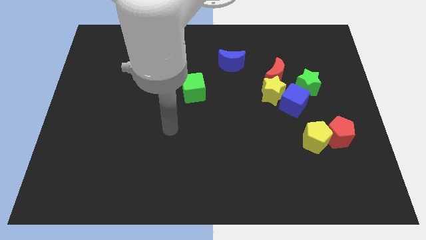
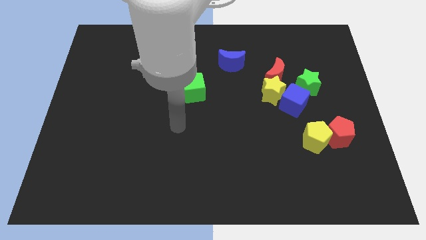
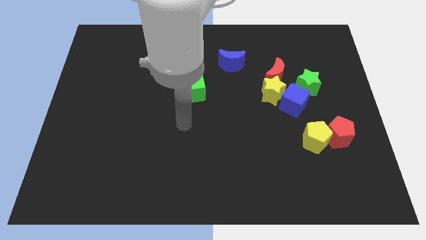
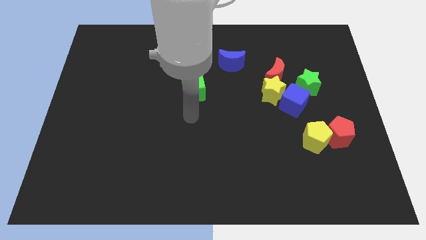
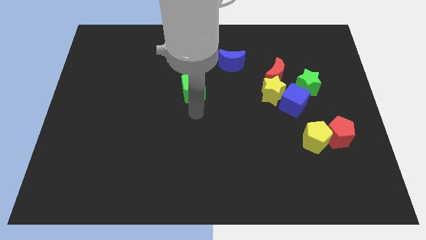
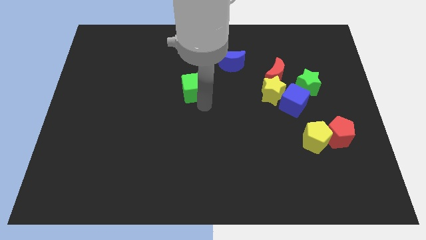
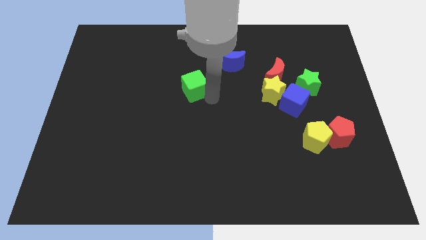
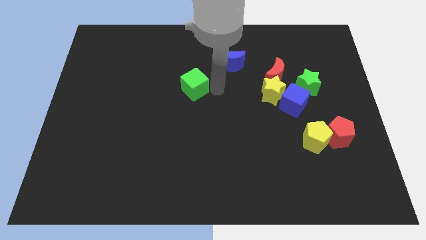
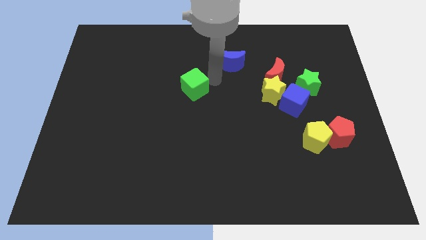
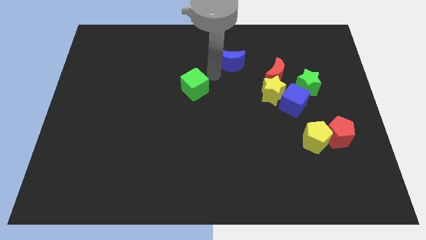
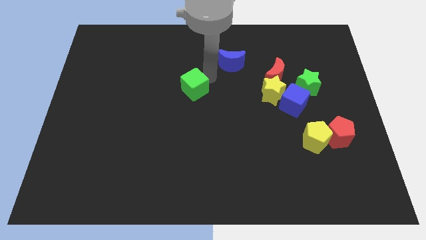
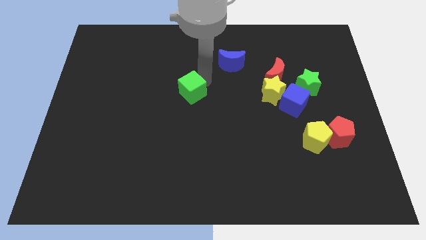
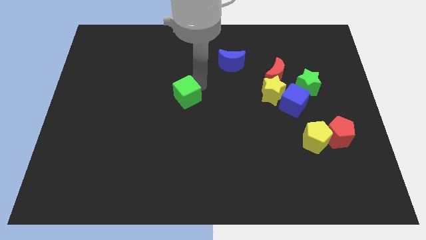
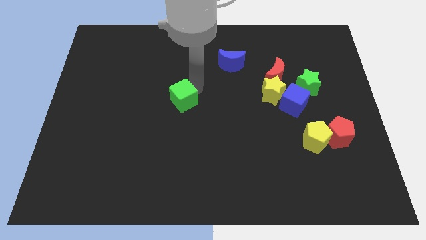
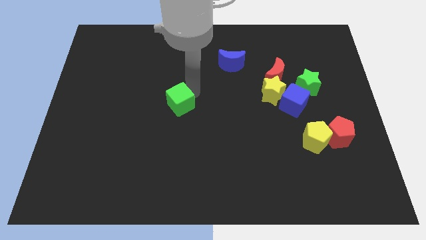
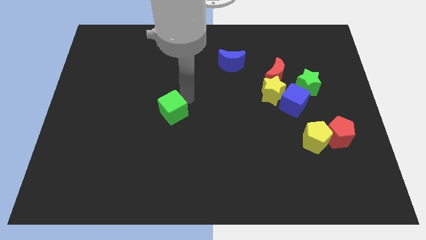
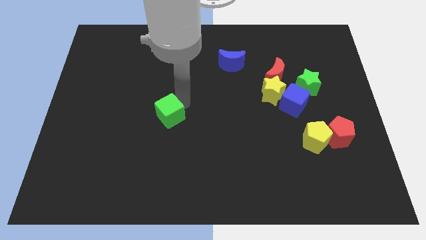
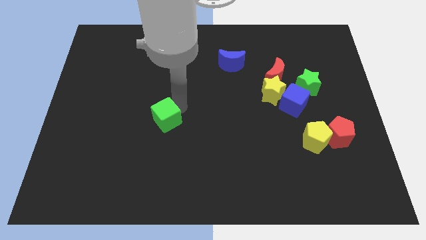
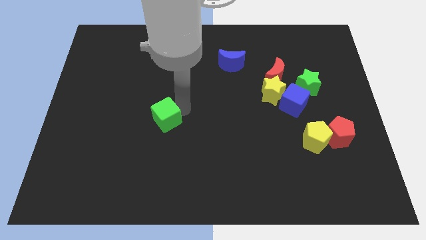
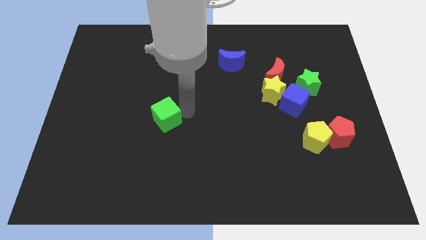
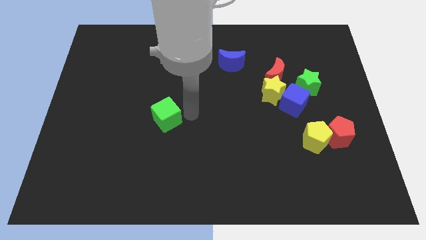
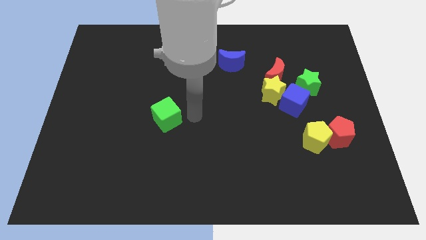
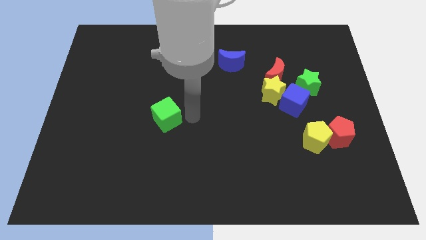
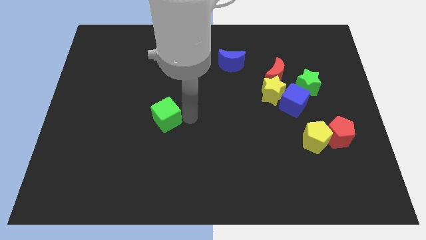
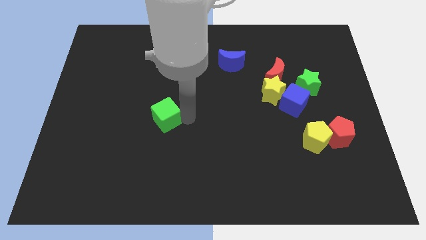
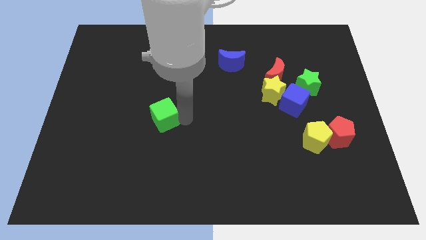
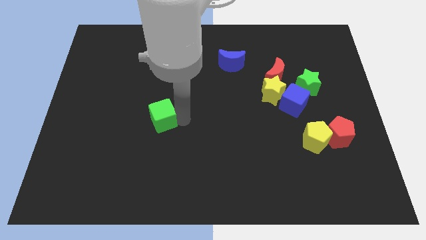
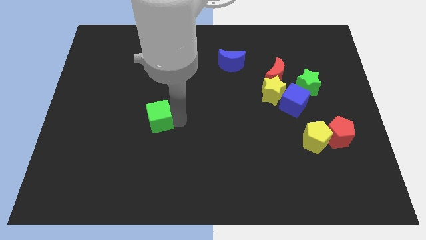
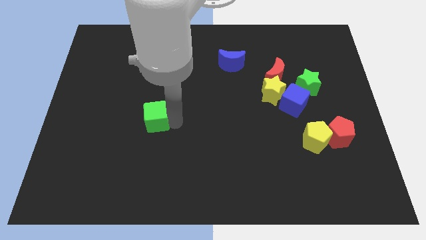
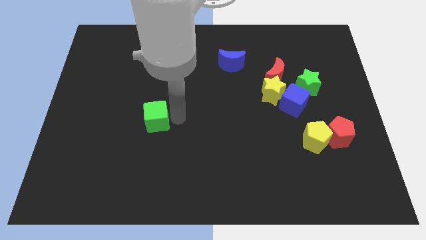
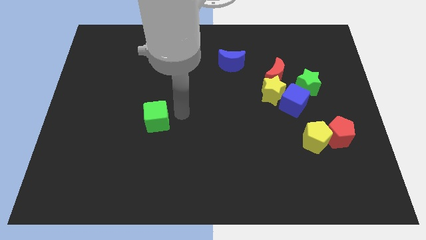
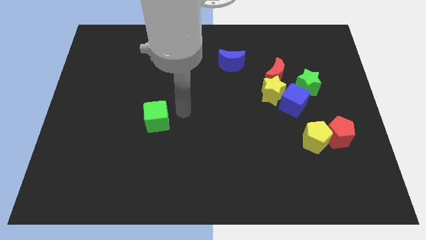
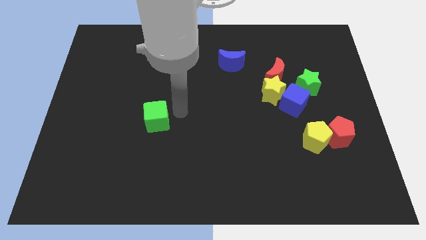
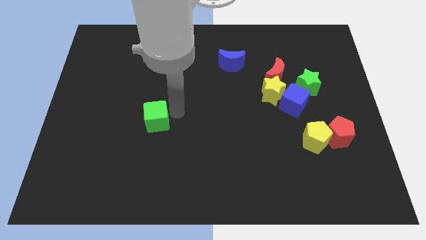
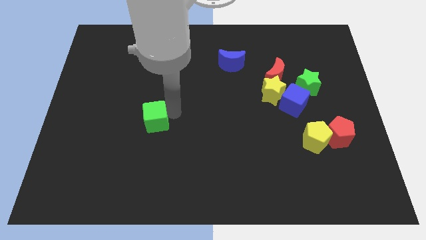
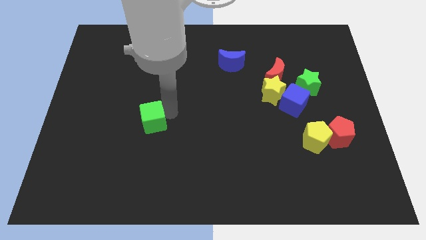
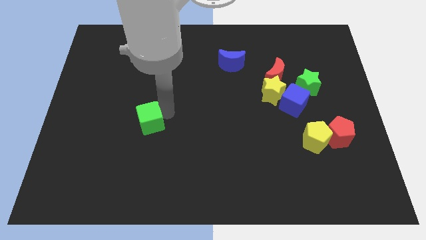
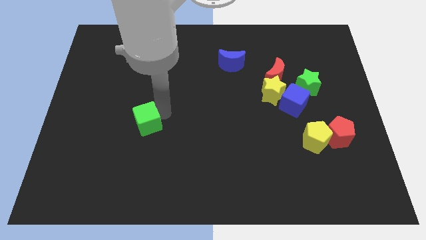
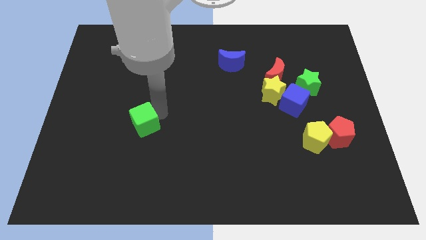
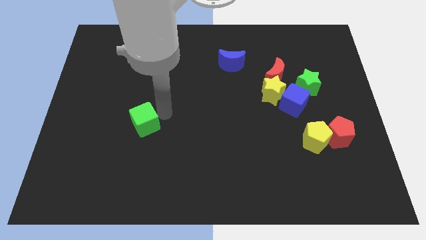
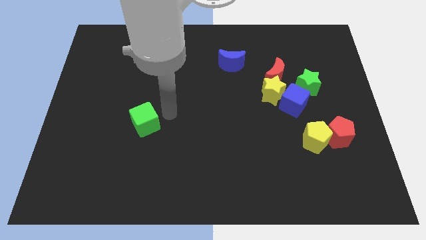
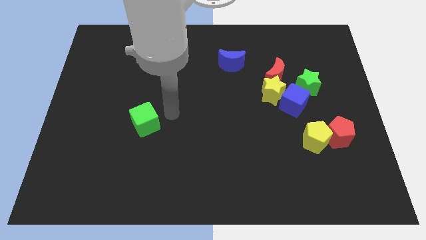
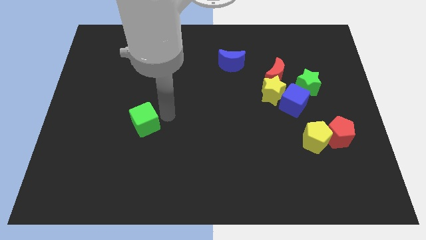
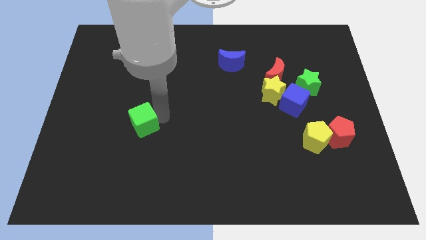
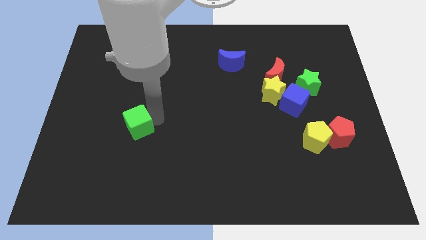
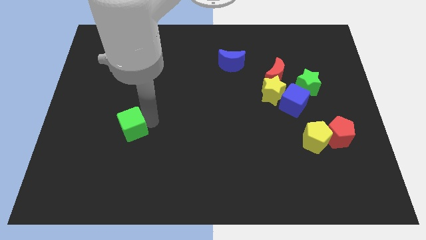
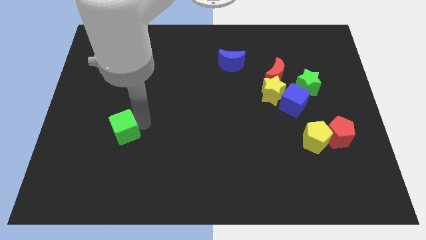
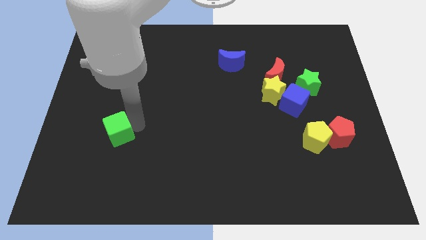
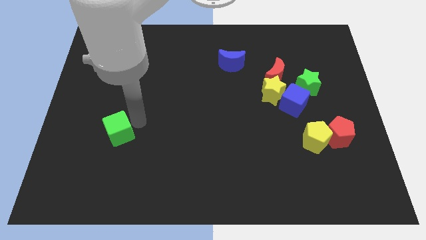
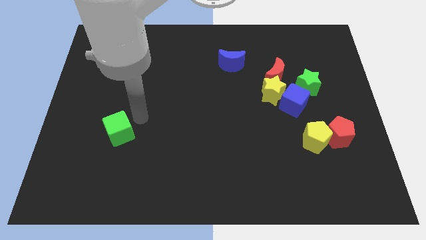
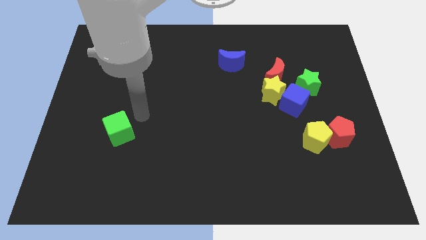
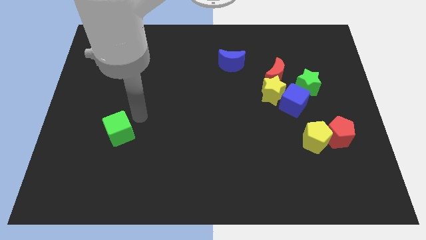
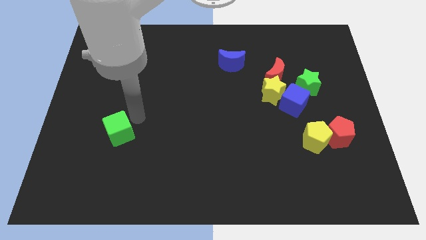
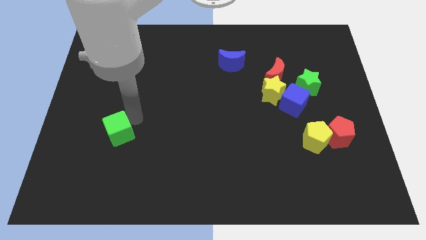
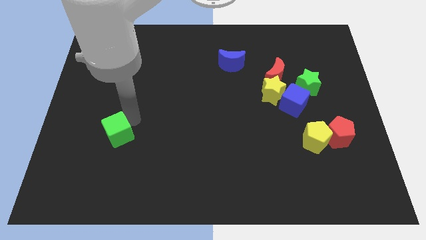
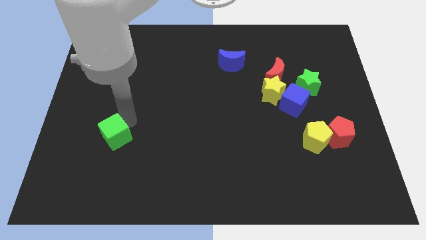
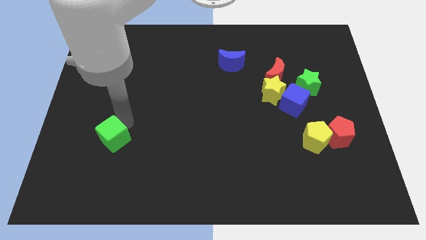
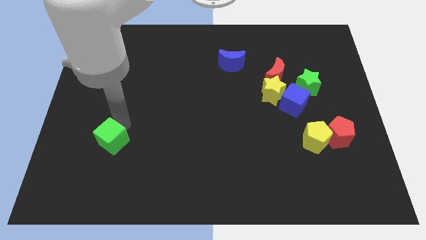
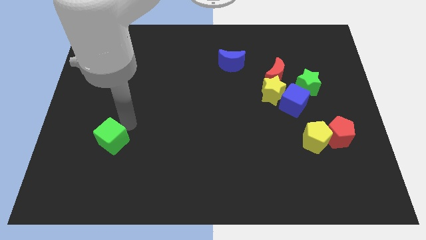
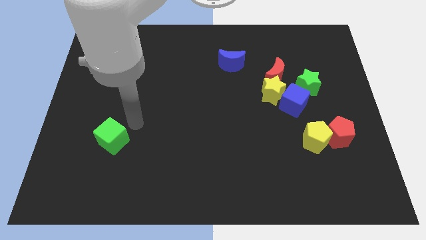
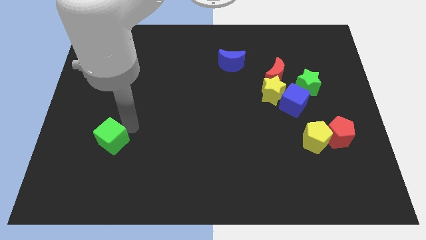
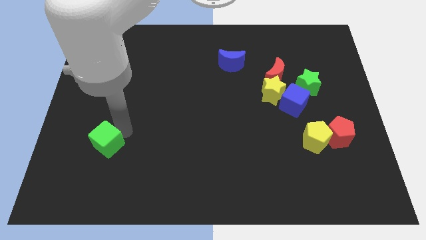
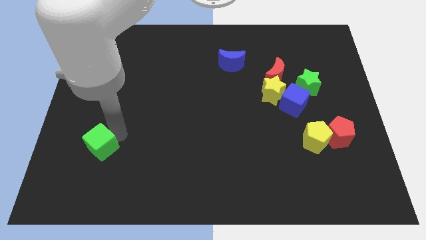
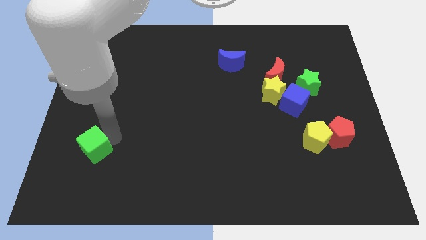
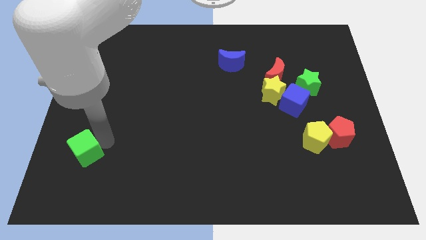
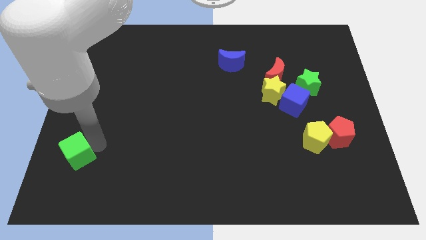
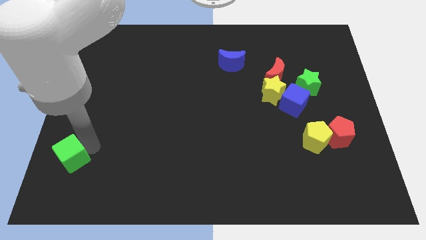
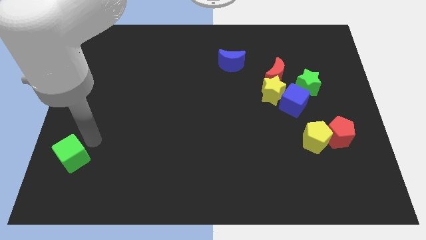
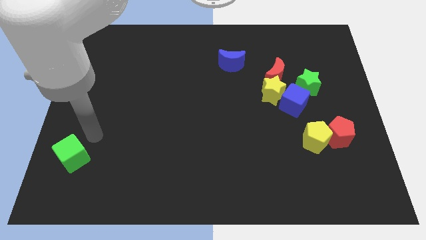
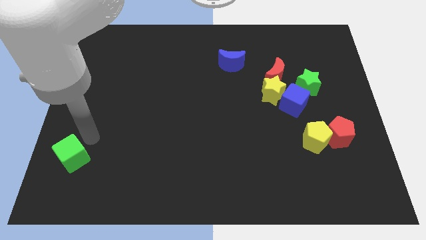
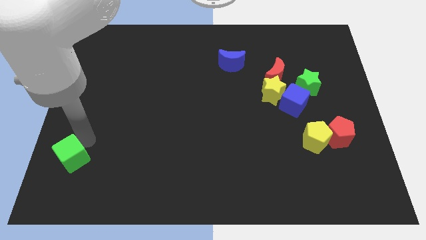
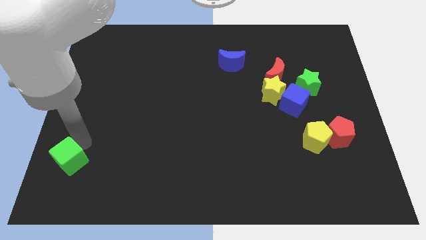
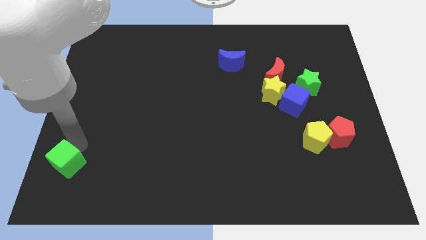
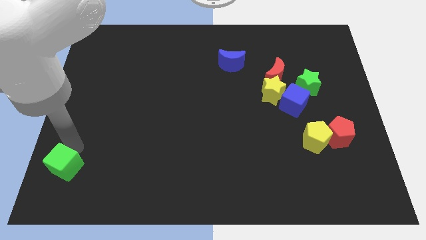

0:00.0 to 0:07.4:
slide the green cube to the bottom left of the board

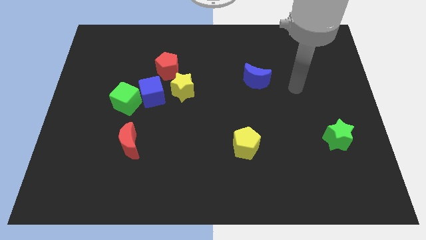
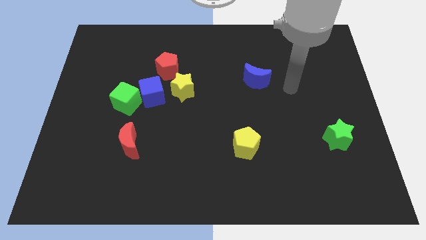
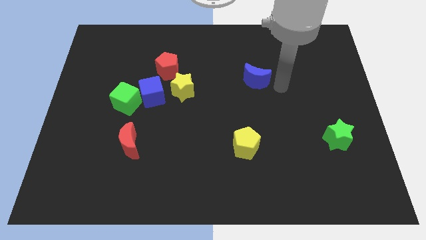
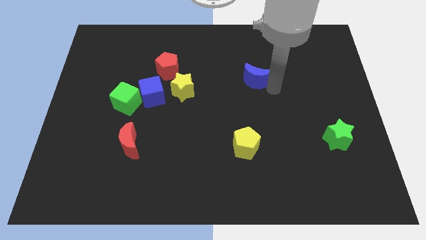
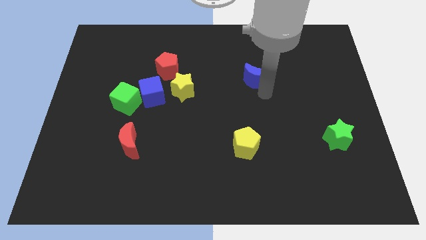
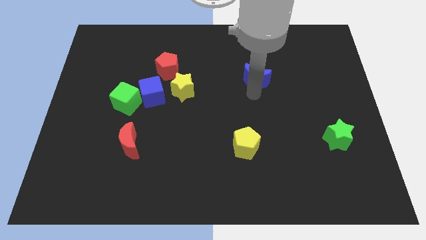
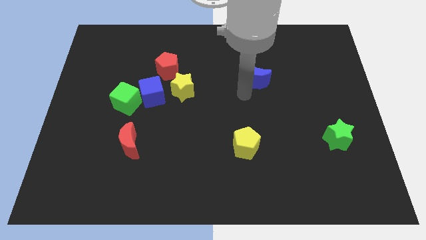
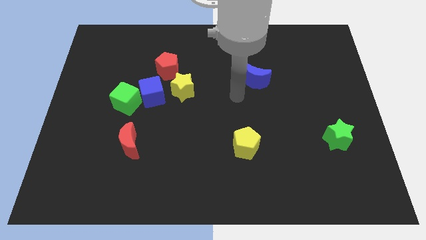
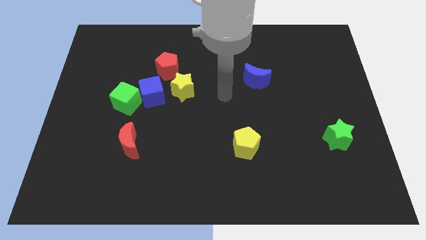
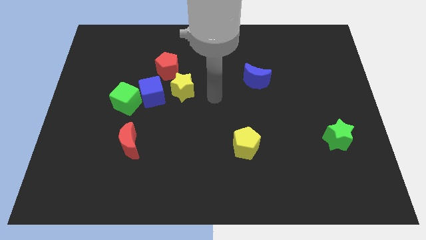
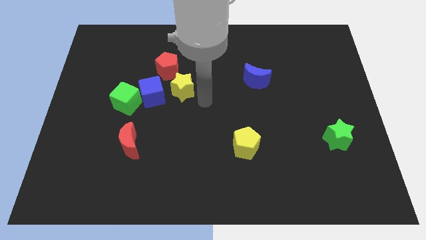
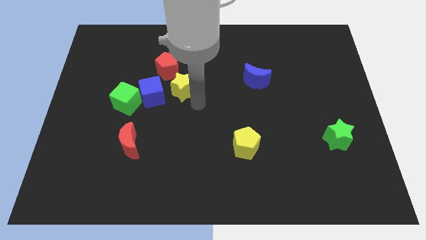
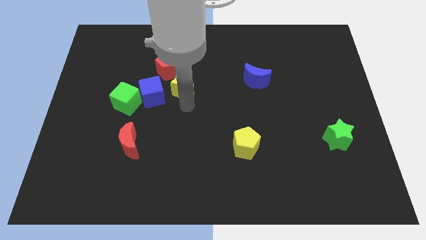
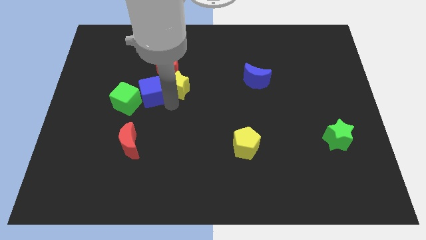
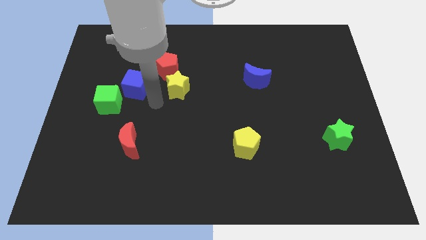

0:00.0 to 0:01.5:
move the green cube to the left side
